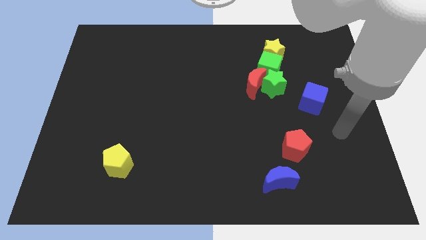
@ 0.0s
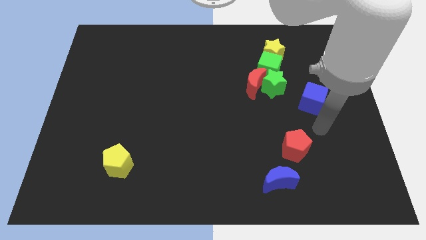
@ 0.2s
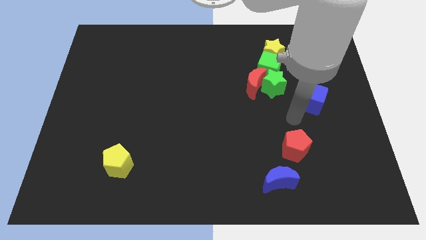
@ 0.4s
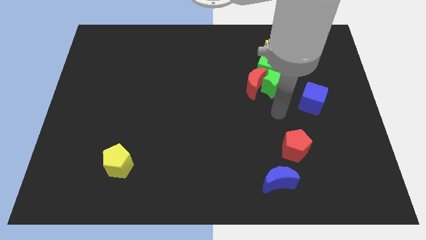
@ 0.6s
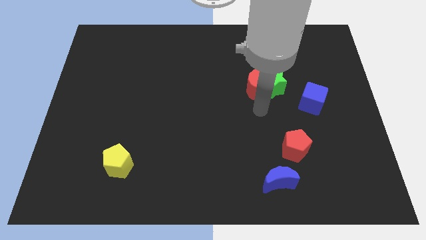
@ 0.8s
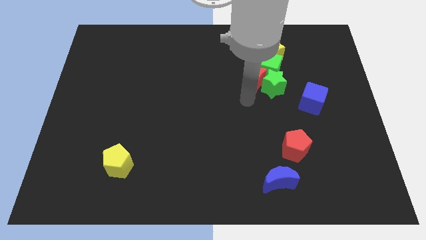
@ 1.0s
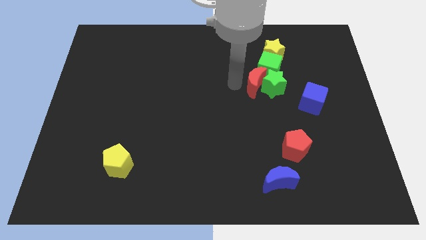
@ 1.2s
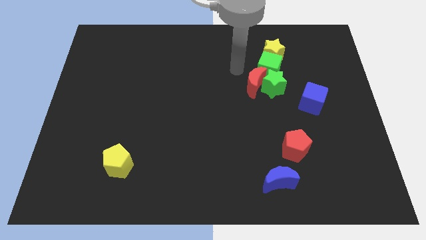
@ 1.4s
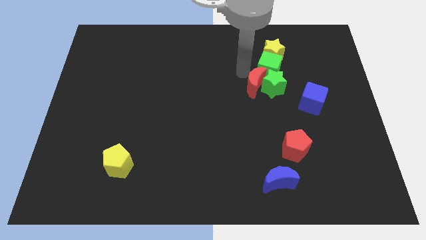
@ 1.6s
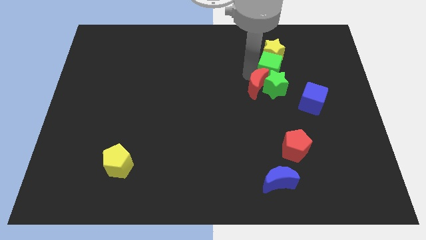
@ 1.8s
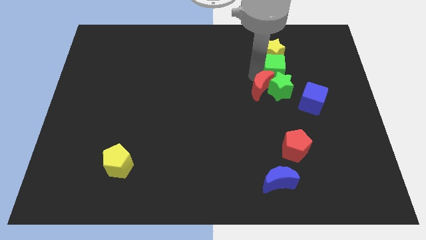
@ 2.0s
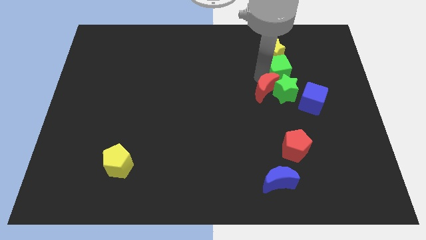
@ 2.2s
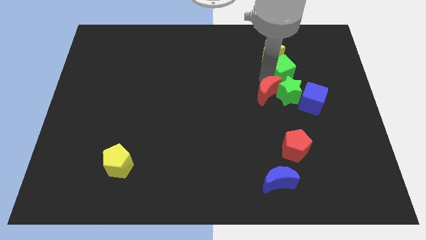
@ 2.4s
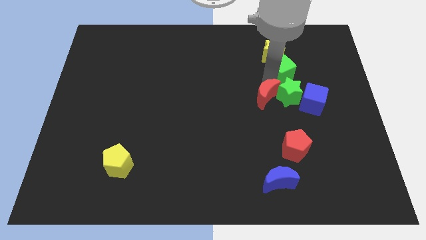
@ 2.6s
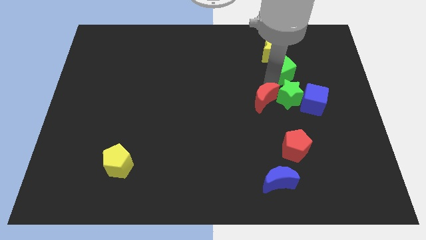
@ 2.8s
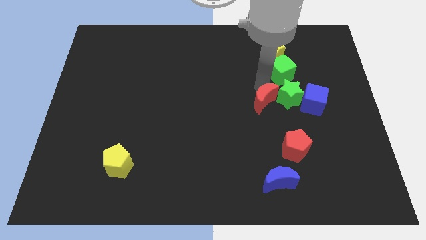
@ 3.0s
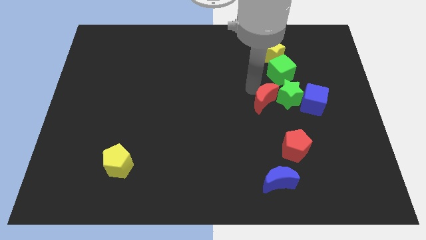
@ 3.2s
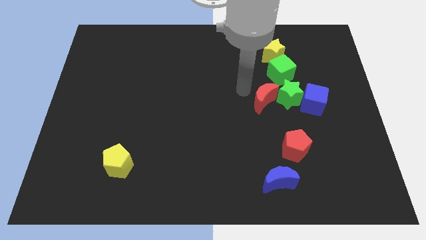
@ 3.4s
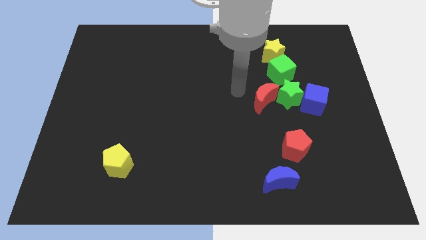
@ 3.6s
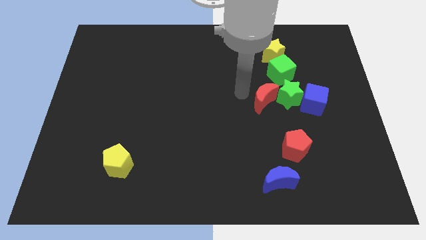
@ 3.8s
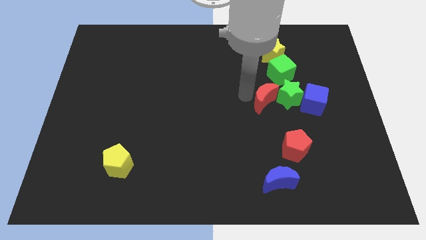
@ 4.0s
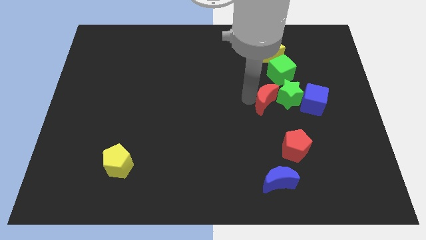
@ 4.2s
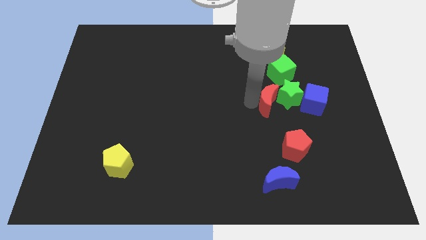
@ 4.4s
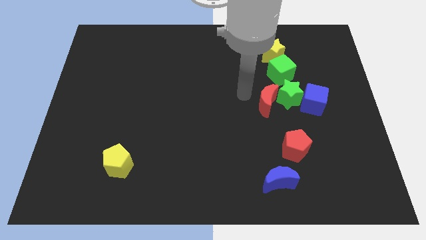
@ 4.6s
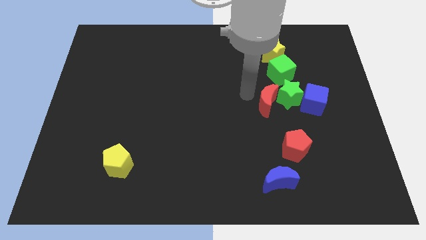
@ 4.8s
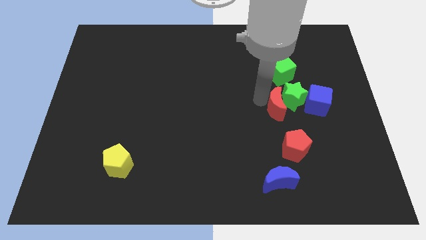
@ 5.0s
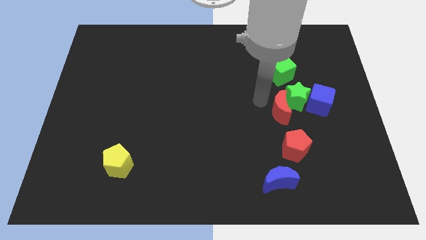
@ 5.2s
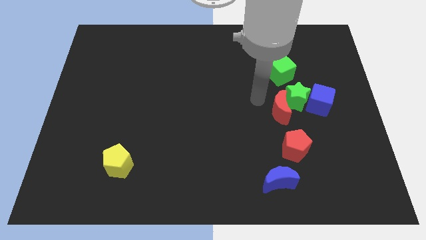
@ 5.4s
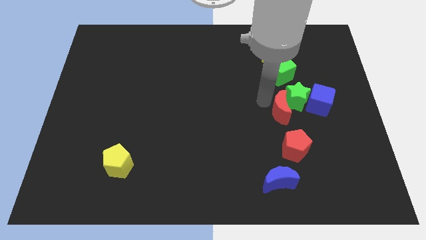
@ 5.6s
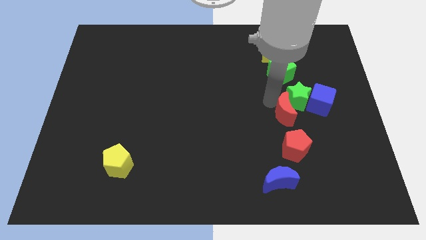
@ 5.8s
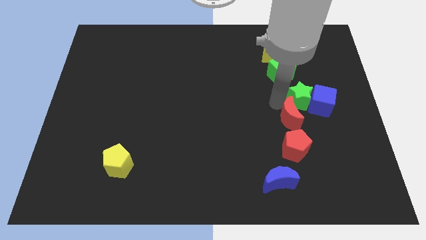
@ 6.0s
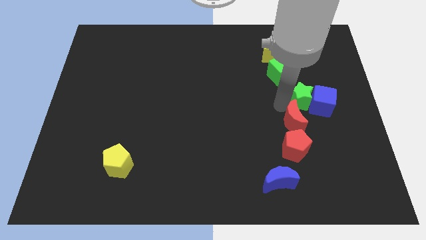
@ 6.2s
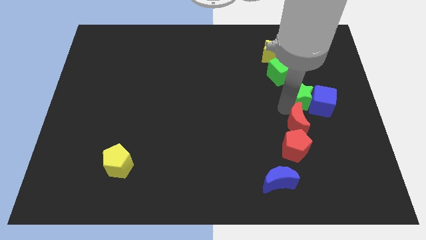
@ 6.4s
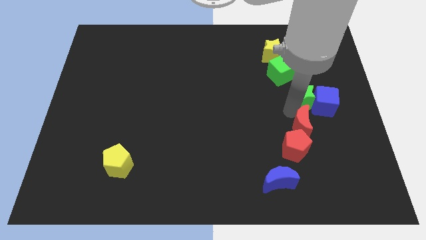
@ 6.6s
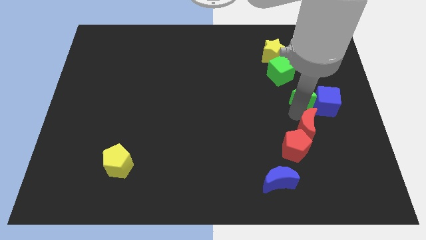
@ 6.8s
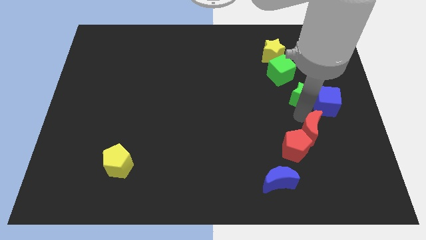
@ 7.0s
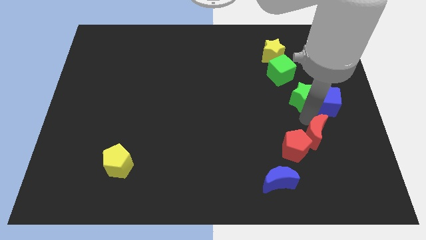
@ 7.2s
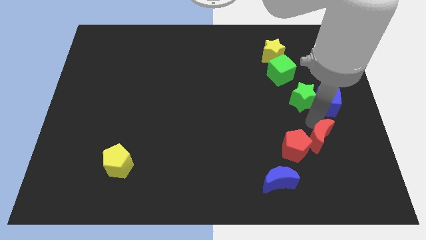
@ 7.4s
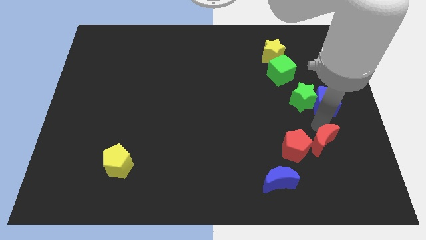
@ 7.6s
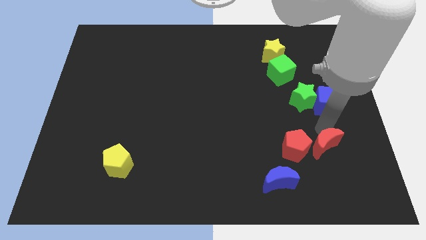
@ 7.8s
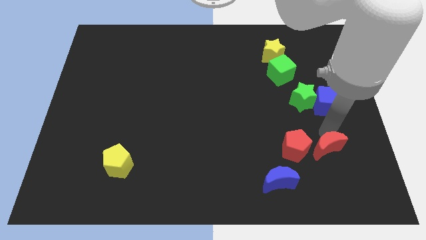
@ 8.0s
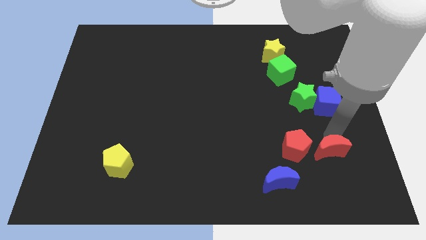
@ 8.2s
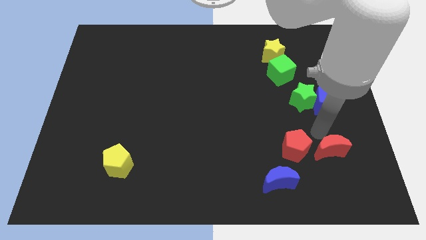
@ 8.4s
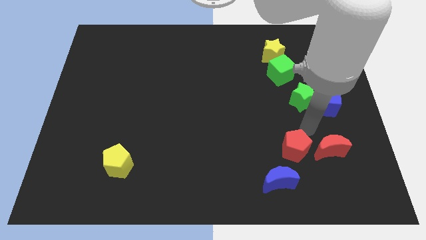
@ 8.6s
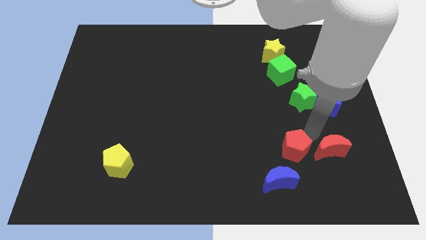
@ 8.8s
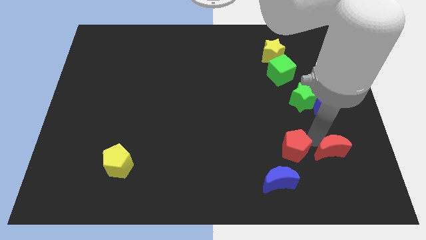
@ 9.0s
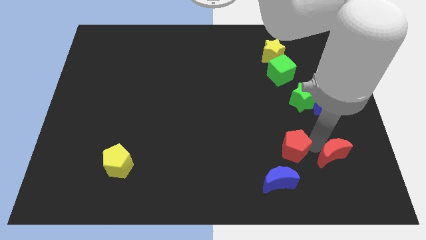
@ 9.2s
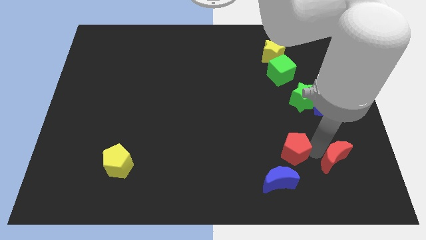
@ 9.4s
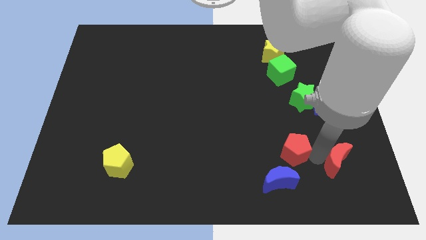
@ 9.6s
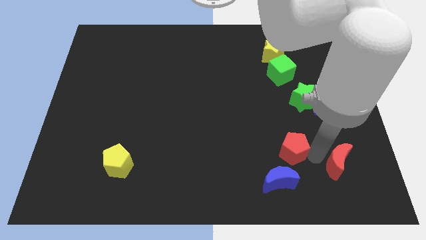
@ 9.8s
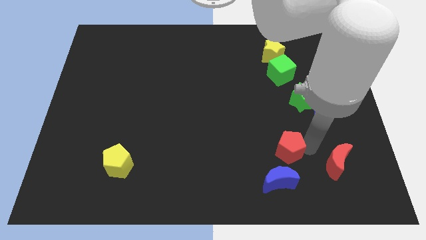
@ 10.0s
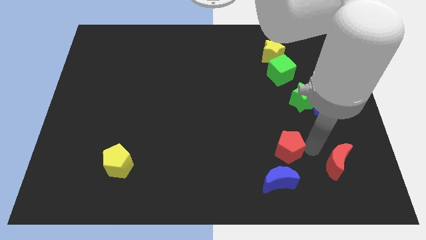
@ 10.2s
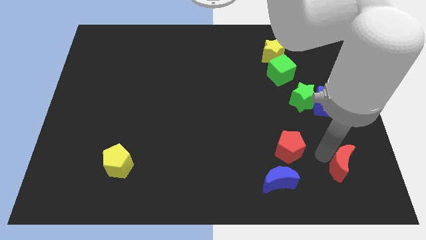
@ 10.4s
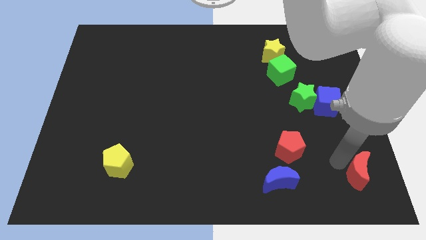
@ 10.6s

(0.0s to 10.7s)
put the red moon to the bottom right

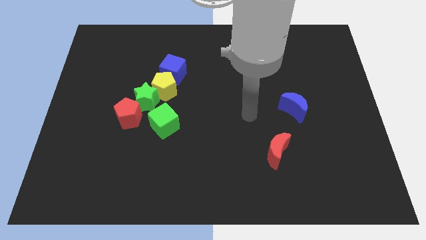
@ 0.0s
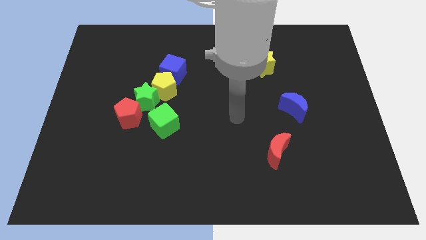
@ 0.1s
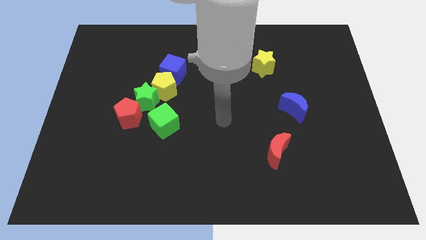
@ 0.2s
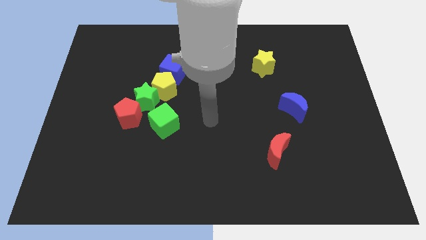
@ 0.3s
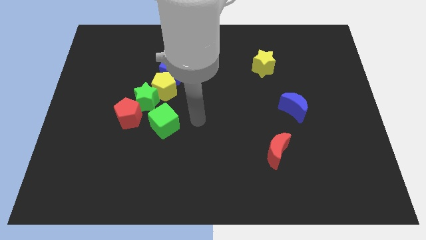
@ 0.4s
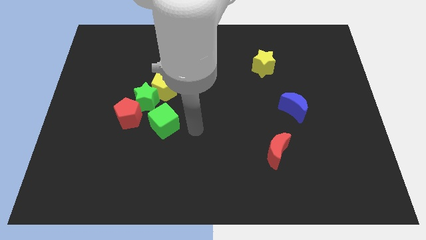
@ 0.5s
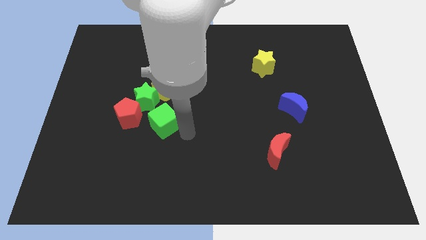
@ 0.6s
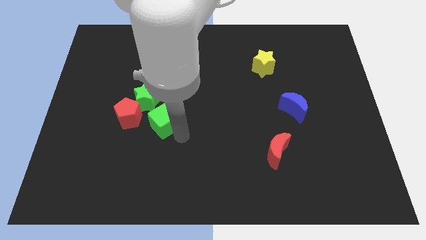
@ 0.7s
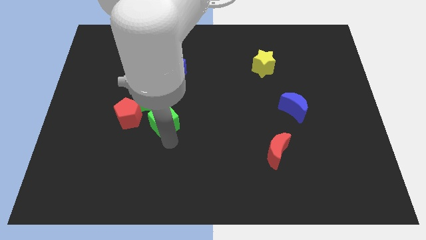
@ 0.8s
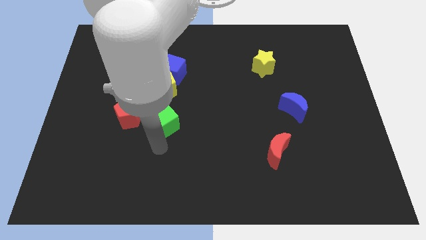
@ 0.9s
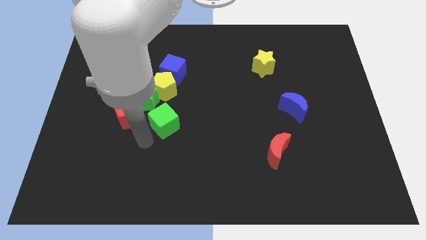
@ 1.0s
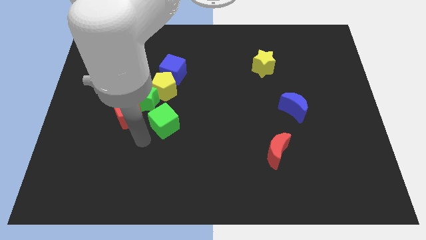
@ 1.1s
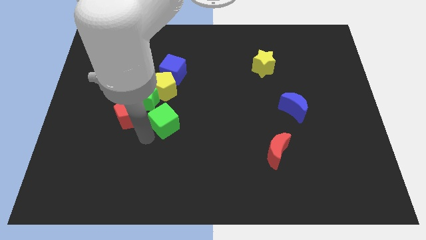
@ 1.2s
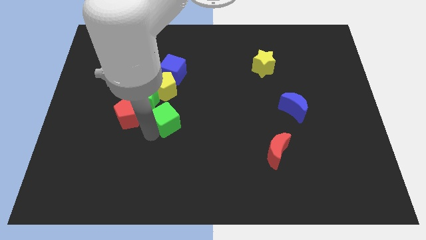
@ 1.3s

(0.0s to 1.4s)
move the green cube to the middle of the board
